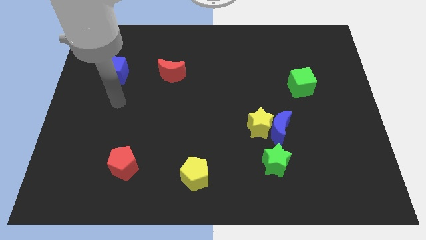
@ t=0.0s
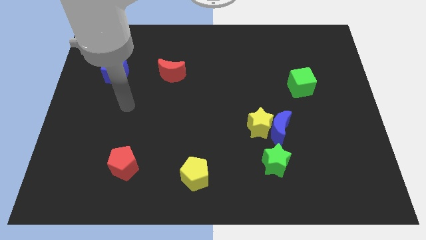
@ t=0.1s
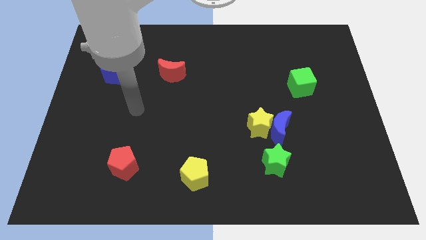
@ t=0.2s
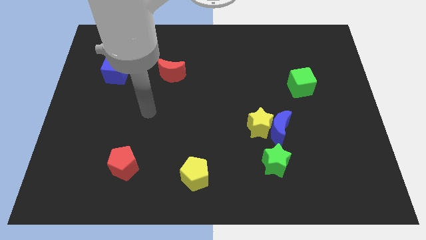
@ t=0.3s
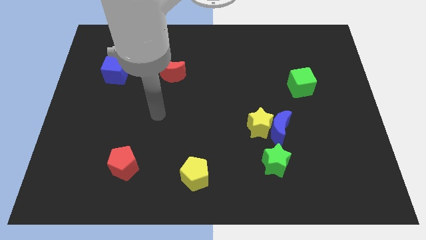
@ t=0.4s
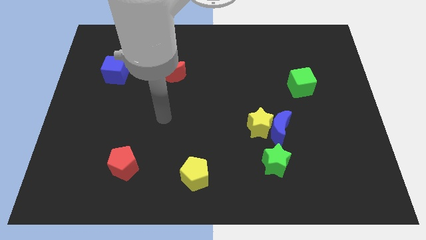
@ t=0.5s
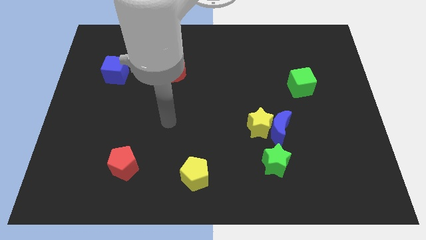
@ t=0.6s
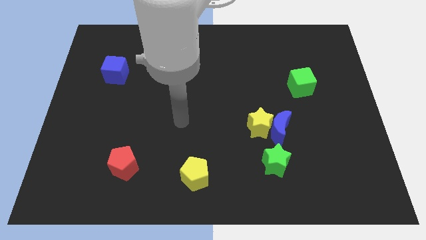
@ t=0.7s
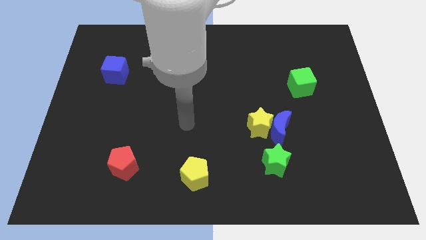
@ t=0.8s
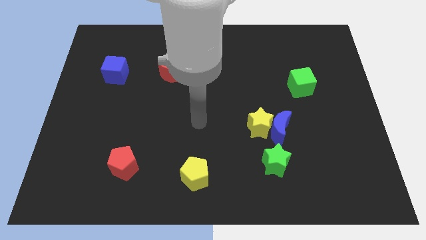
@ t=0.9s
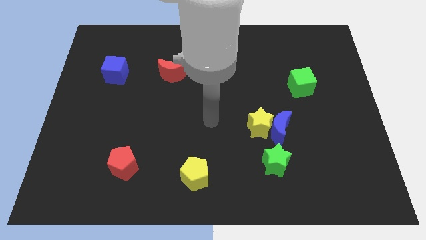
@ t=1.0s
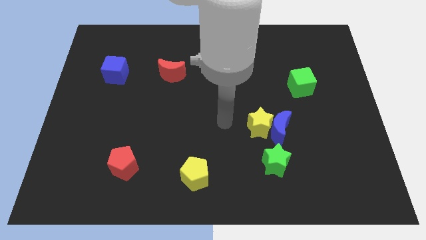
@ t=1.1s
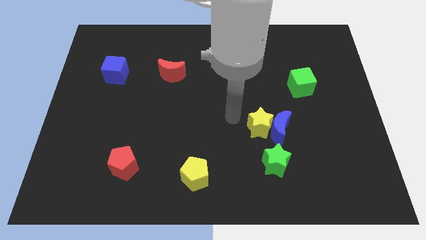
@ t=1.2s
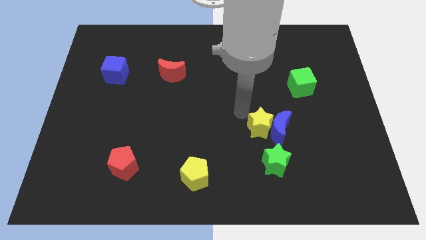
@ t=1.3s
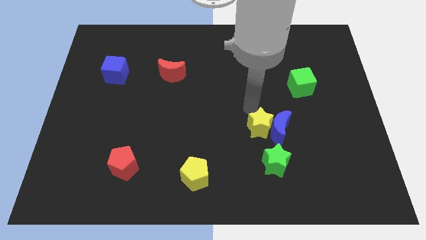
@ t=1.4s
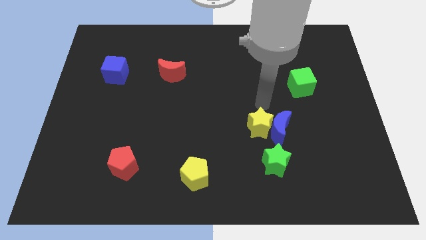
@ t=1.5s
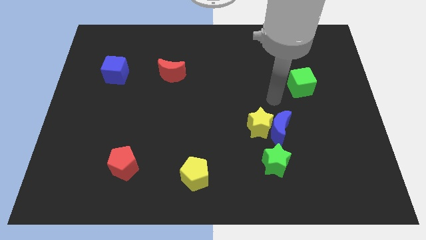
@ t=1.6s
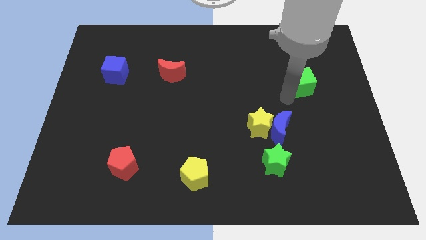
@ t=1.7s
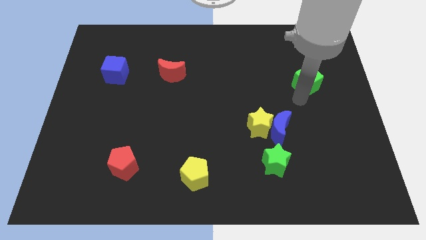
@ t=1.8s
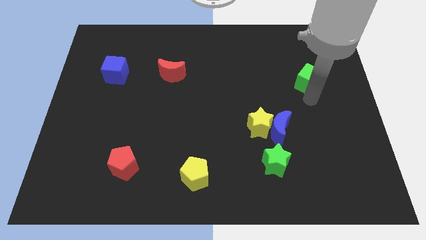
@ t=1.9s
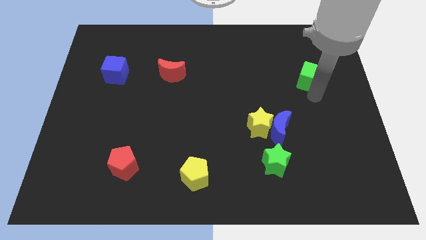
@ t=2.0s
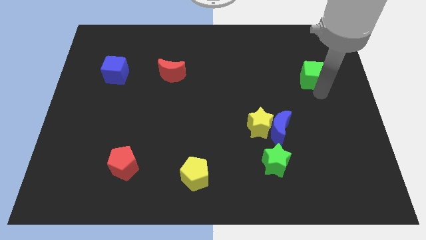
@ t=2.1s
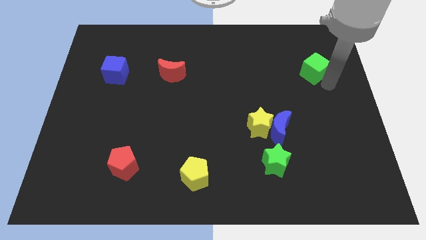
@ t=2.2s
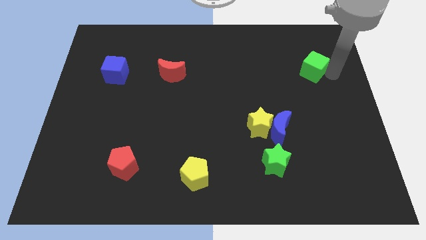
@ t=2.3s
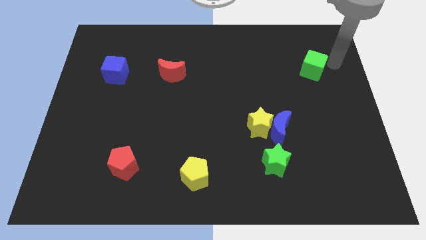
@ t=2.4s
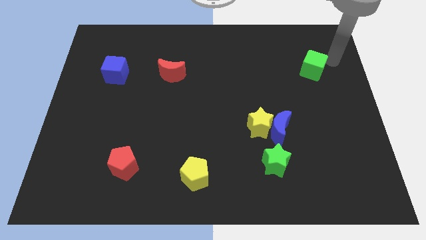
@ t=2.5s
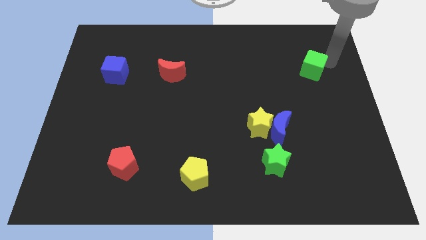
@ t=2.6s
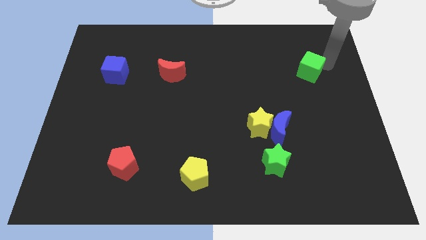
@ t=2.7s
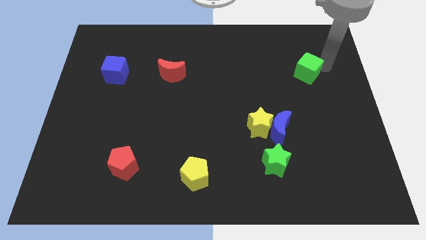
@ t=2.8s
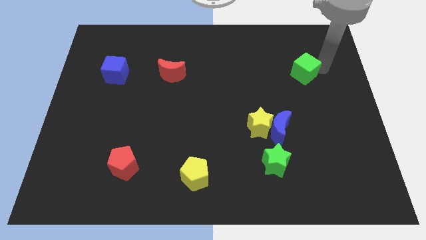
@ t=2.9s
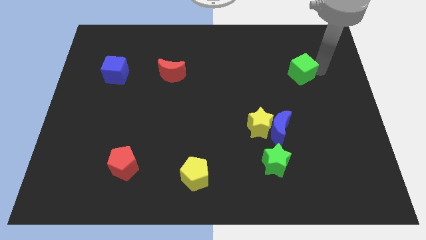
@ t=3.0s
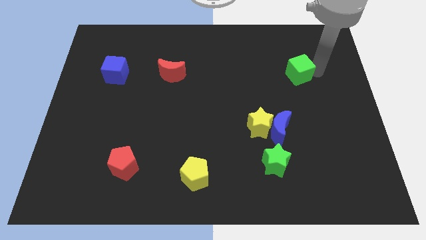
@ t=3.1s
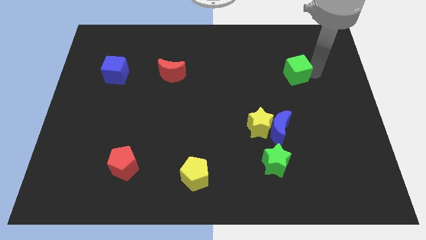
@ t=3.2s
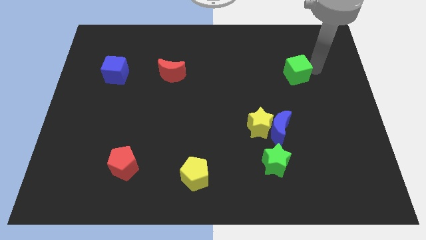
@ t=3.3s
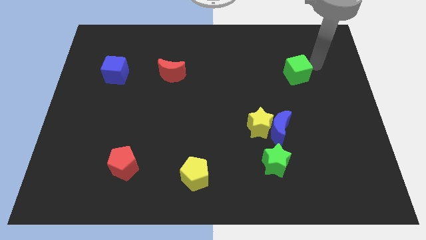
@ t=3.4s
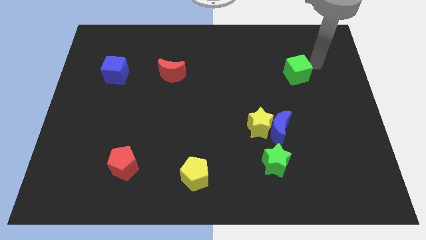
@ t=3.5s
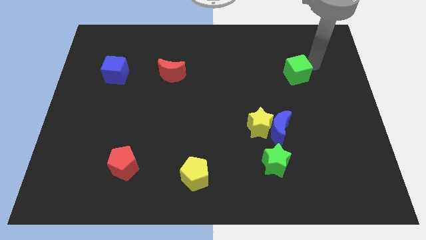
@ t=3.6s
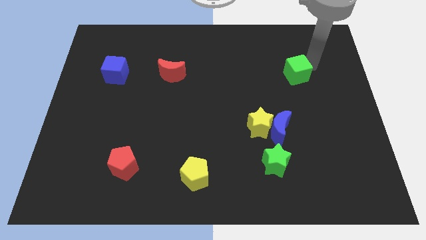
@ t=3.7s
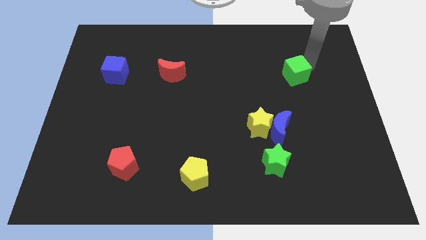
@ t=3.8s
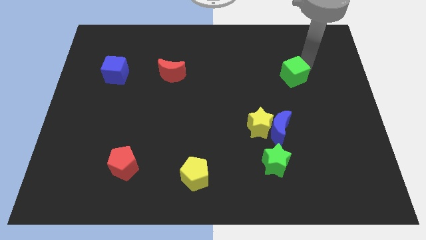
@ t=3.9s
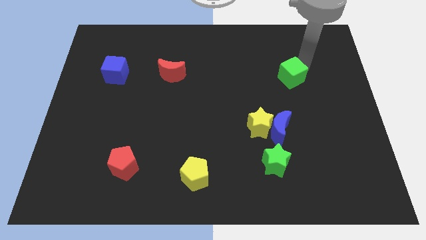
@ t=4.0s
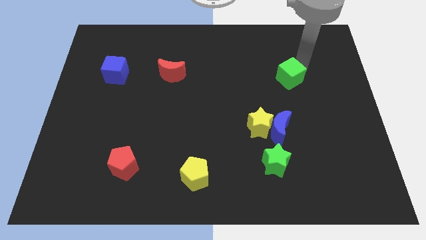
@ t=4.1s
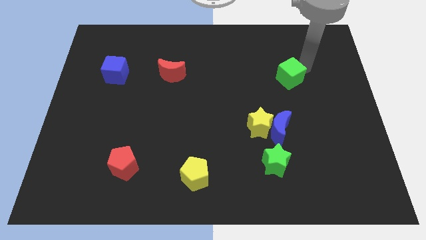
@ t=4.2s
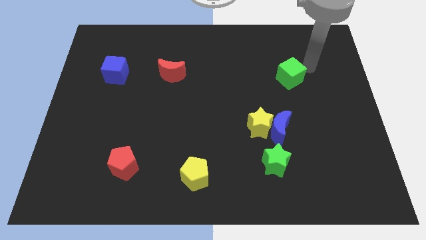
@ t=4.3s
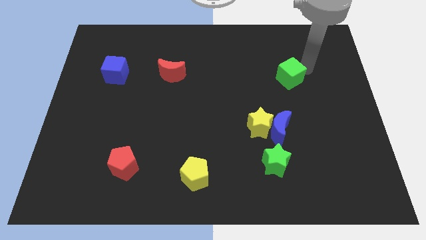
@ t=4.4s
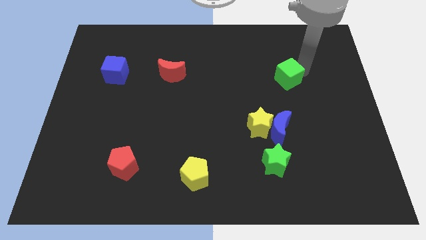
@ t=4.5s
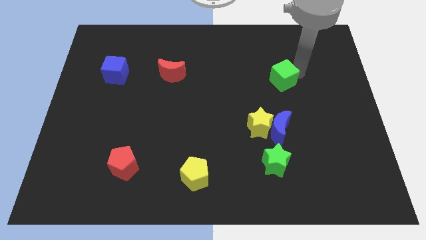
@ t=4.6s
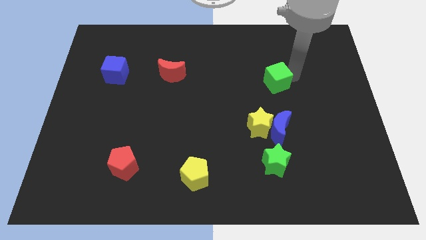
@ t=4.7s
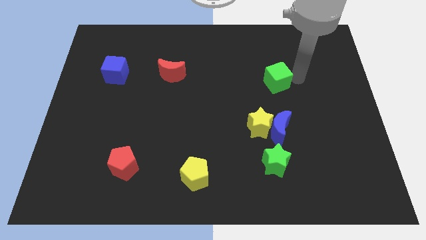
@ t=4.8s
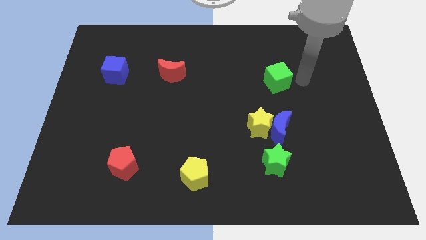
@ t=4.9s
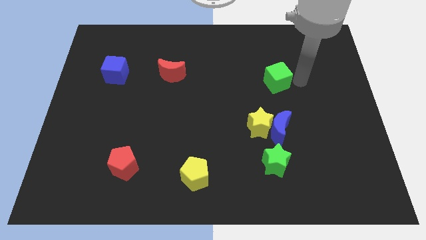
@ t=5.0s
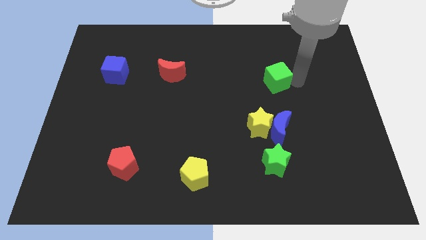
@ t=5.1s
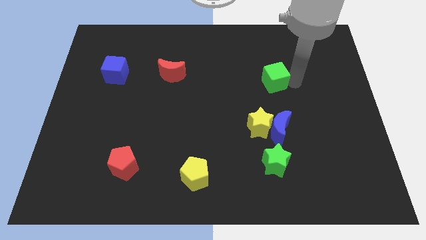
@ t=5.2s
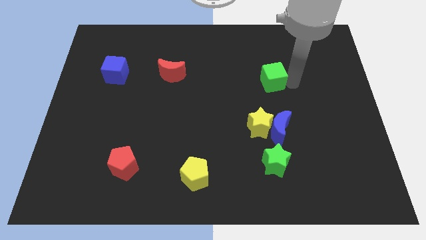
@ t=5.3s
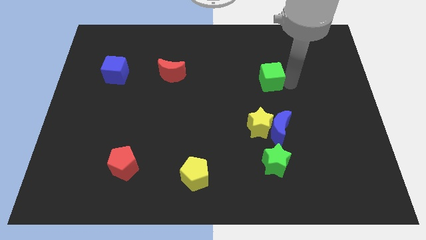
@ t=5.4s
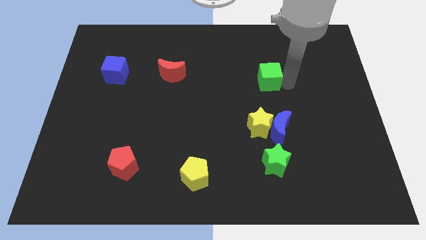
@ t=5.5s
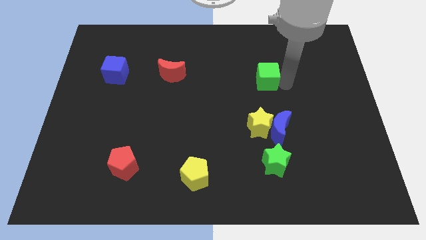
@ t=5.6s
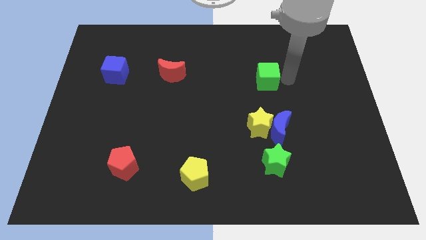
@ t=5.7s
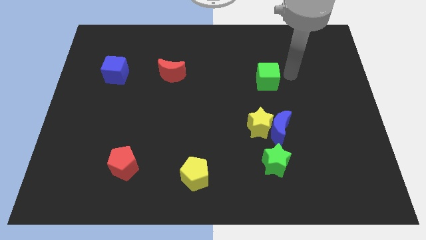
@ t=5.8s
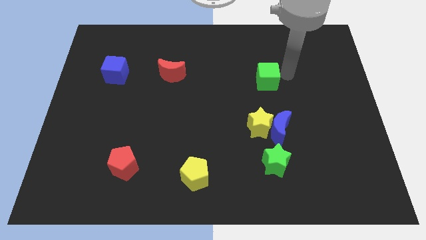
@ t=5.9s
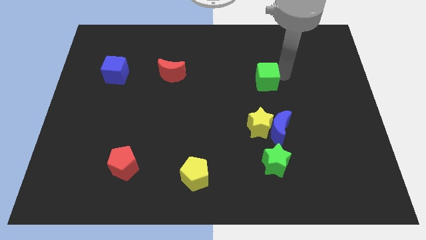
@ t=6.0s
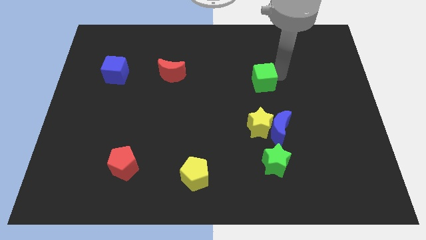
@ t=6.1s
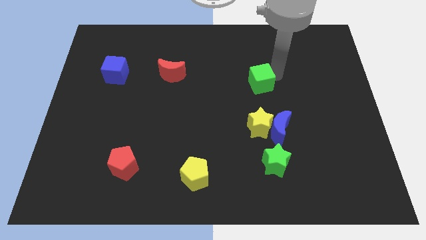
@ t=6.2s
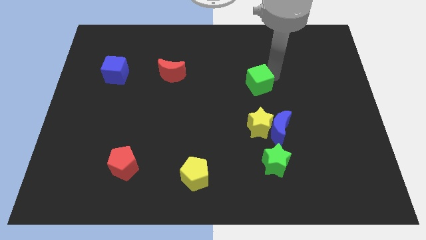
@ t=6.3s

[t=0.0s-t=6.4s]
push the green cube to the middle of the board

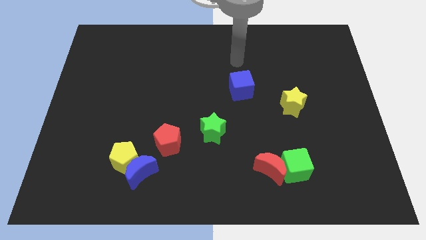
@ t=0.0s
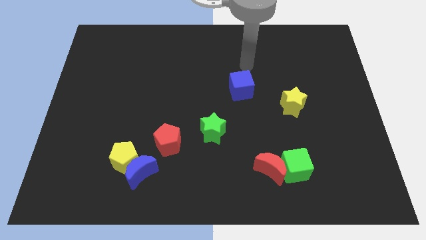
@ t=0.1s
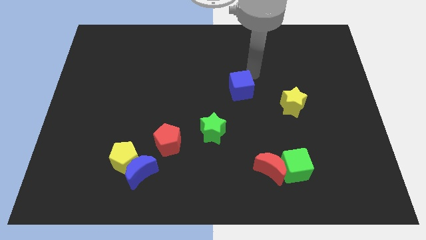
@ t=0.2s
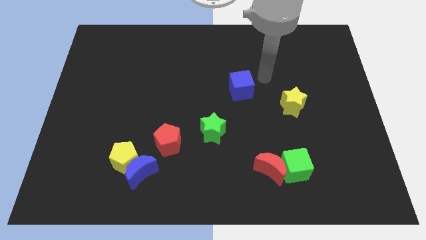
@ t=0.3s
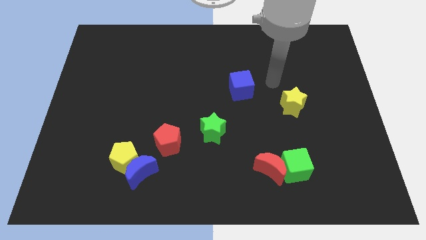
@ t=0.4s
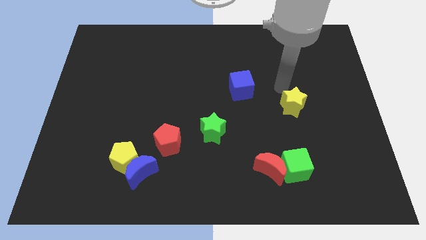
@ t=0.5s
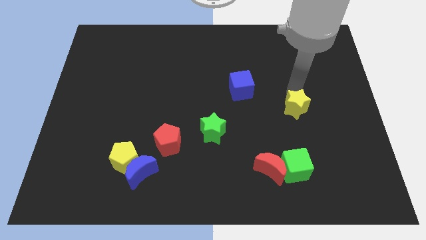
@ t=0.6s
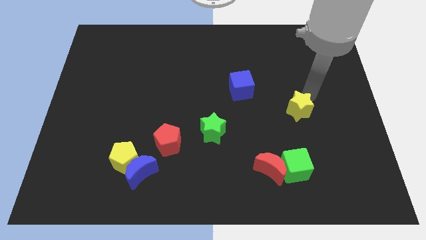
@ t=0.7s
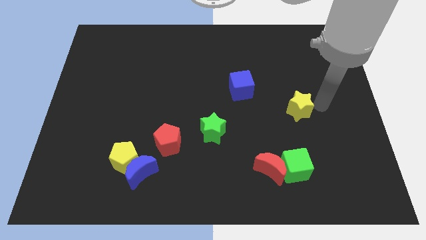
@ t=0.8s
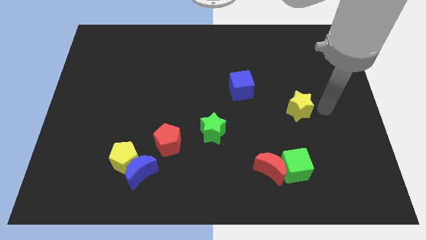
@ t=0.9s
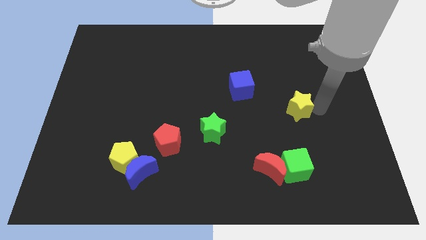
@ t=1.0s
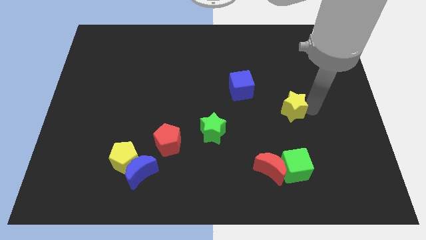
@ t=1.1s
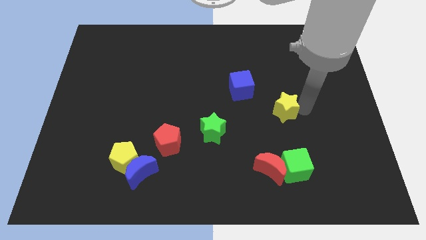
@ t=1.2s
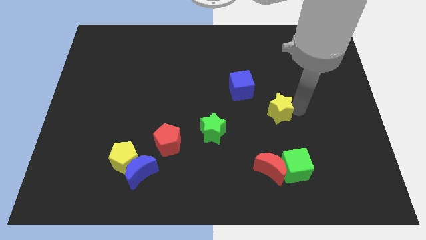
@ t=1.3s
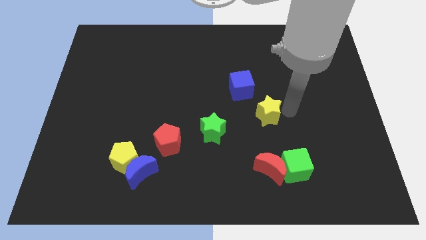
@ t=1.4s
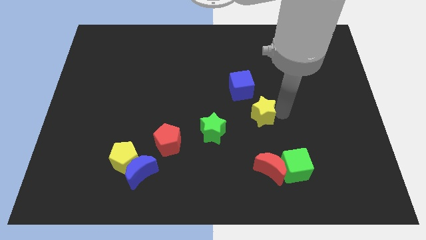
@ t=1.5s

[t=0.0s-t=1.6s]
push the yellow star to the center of the board
